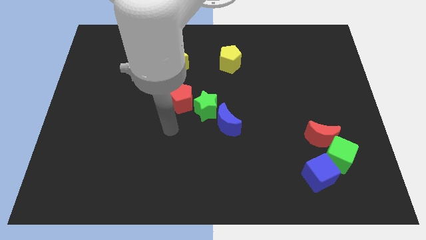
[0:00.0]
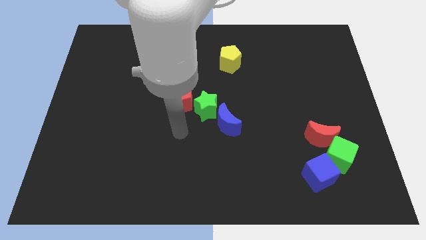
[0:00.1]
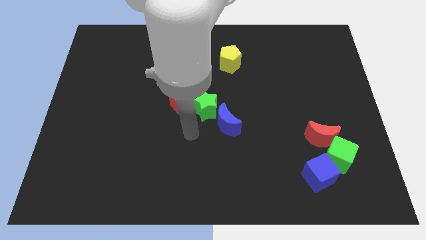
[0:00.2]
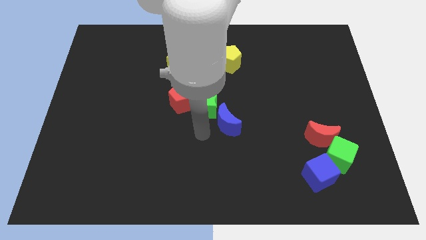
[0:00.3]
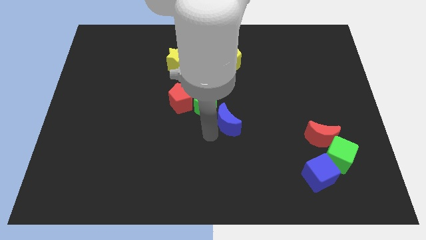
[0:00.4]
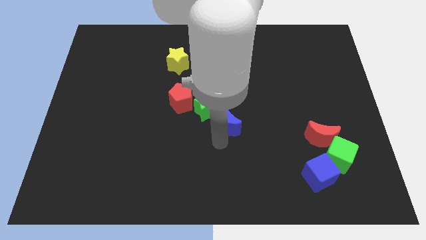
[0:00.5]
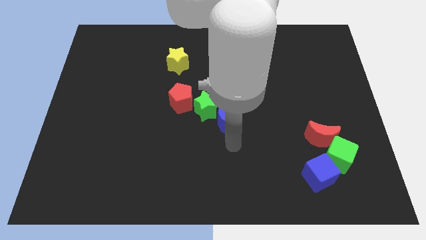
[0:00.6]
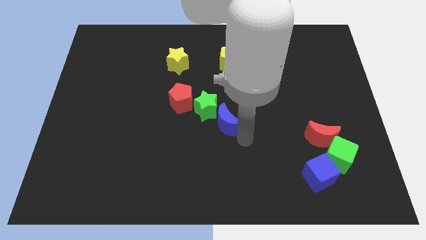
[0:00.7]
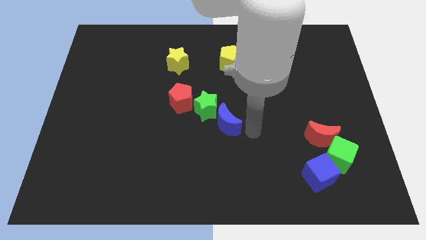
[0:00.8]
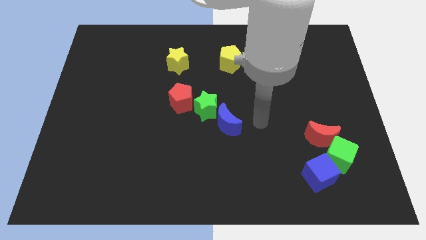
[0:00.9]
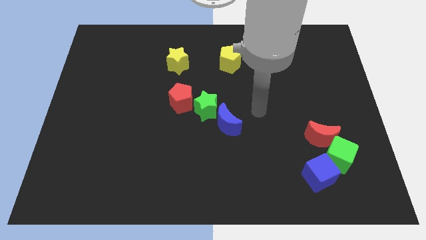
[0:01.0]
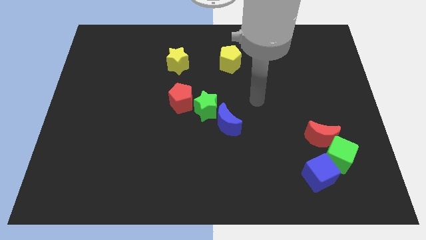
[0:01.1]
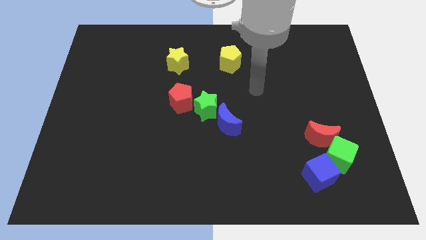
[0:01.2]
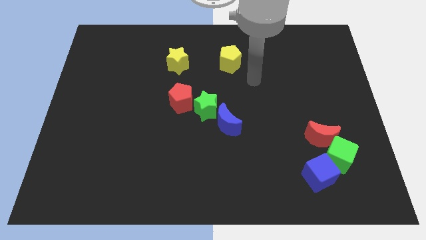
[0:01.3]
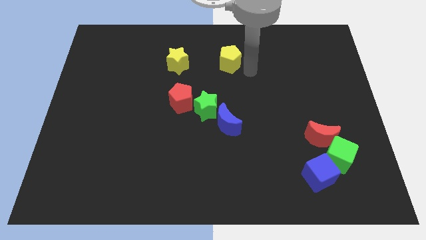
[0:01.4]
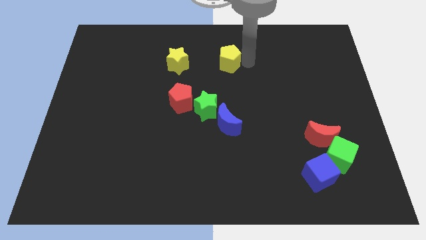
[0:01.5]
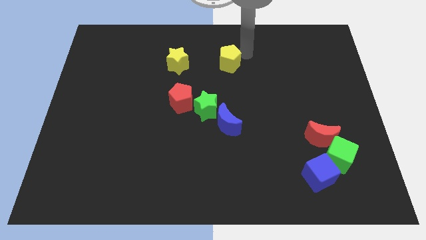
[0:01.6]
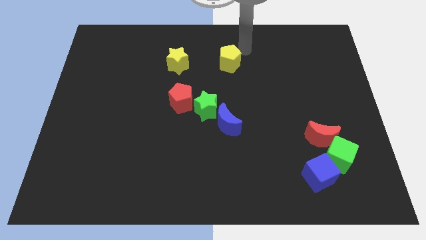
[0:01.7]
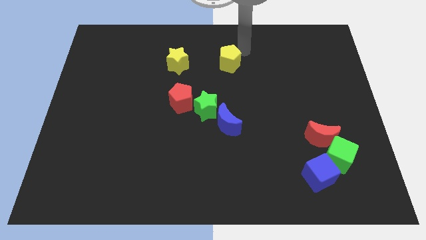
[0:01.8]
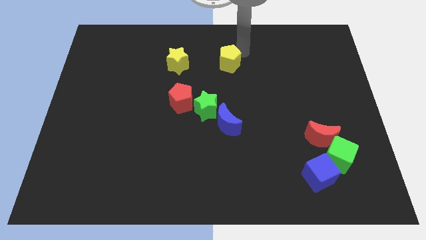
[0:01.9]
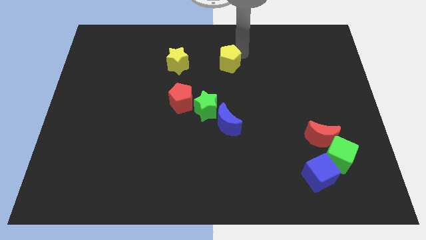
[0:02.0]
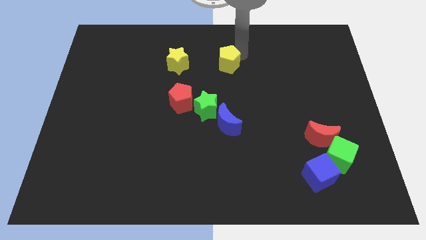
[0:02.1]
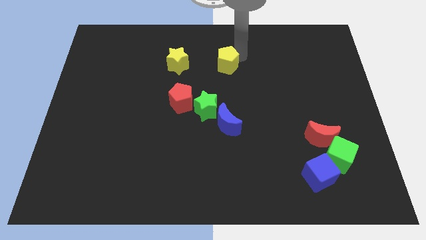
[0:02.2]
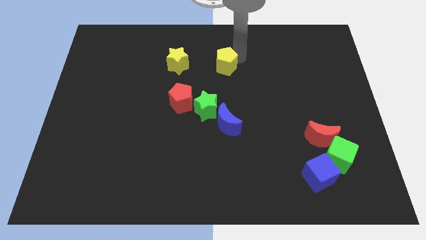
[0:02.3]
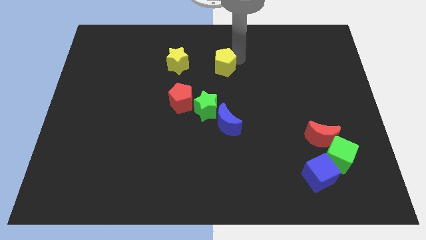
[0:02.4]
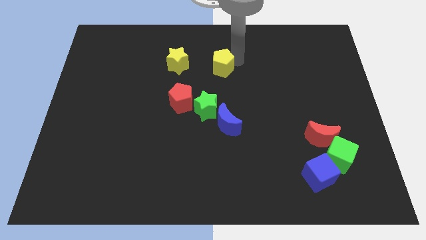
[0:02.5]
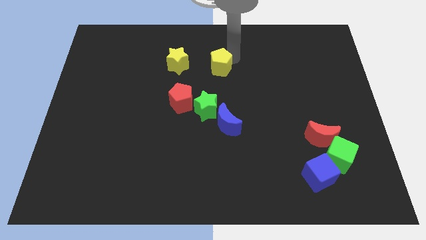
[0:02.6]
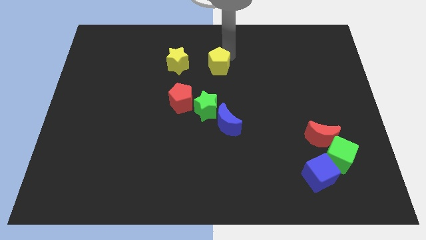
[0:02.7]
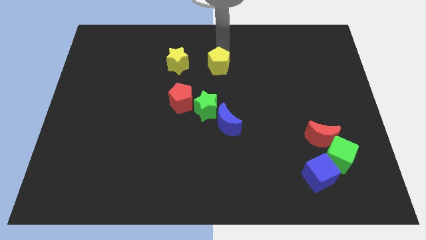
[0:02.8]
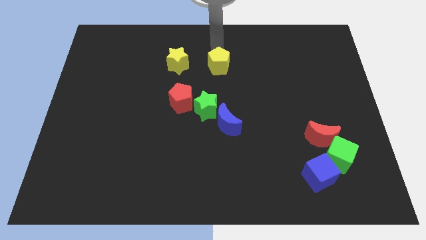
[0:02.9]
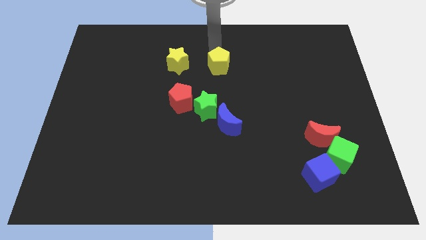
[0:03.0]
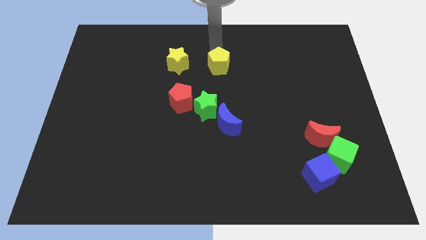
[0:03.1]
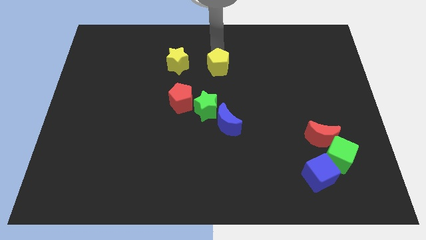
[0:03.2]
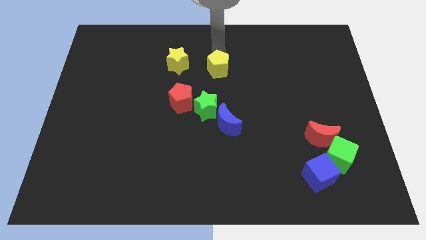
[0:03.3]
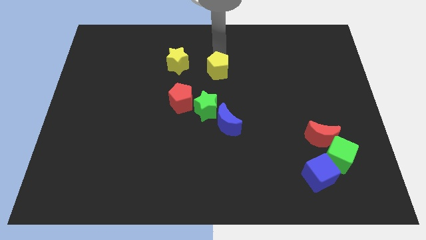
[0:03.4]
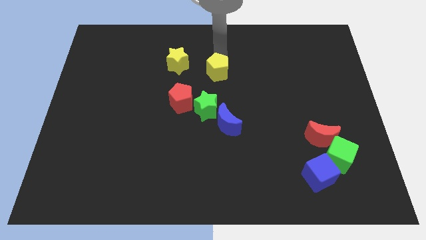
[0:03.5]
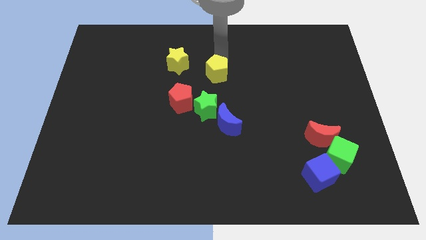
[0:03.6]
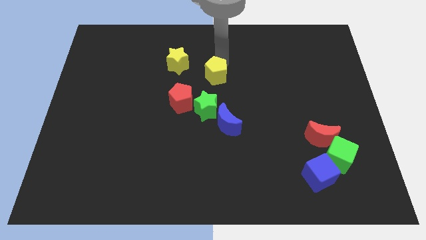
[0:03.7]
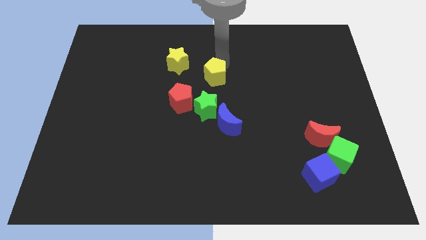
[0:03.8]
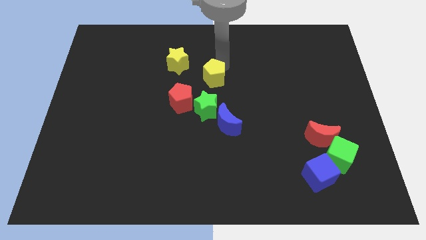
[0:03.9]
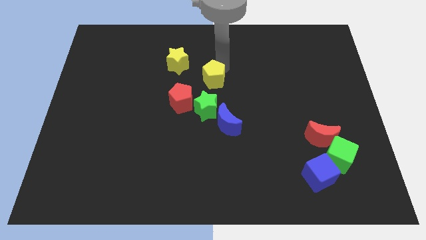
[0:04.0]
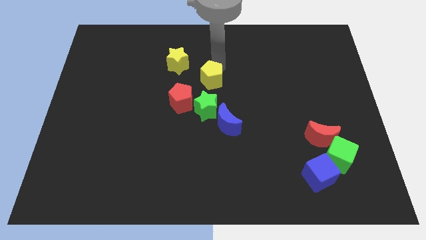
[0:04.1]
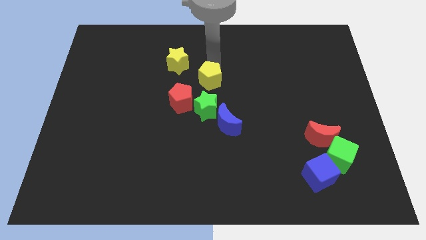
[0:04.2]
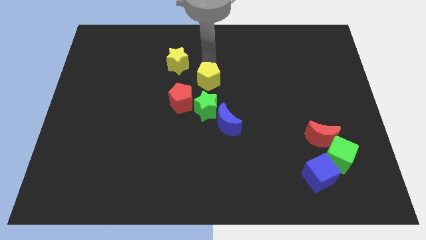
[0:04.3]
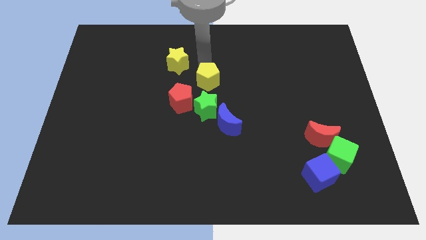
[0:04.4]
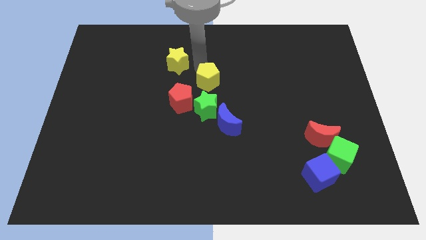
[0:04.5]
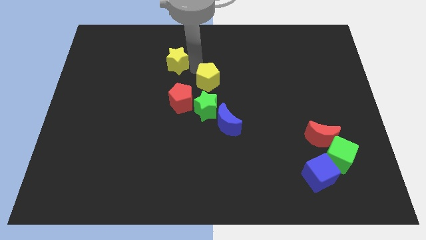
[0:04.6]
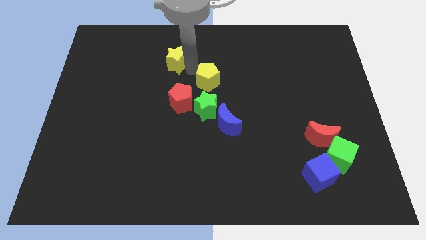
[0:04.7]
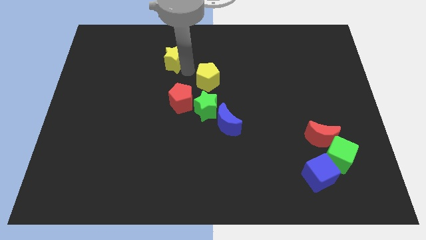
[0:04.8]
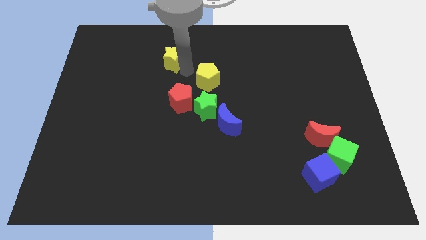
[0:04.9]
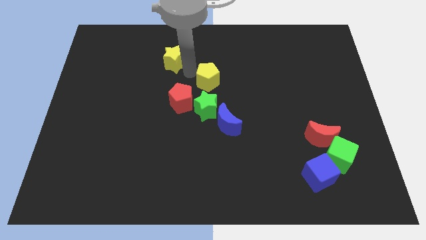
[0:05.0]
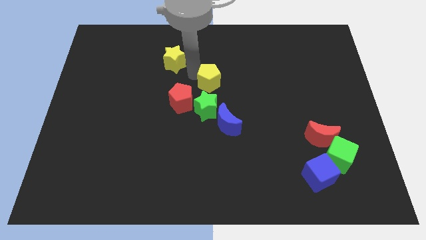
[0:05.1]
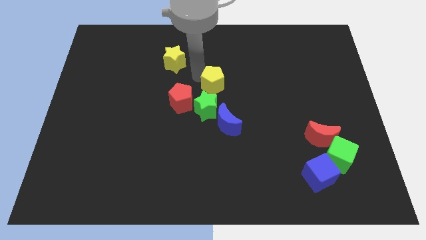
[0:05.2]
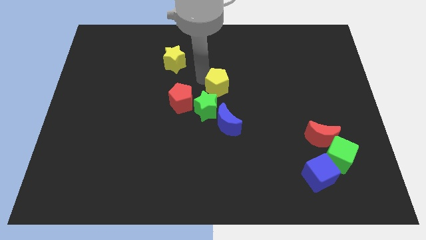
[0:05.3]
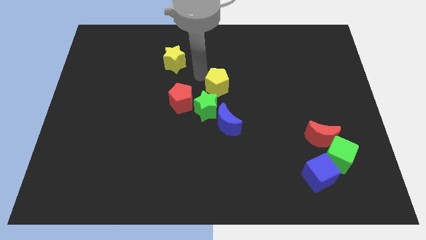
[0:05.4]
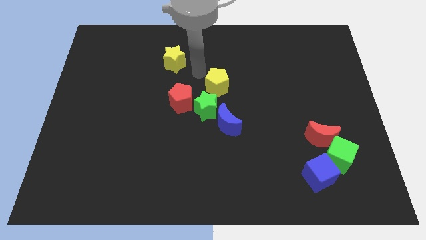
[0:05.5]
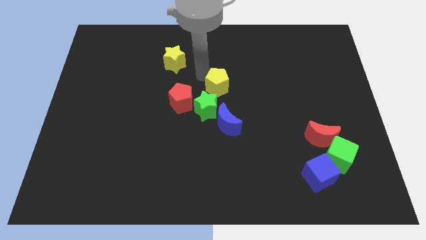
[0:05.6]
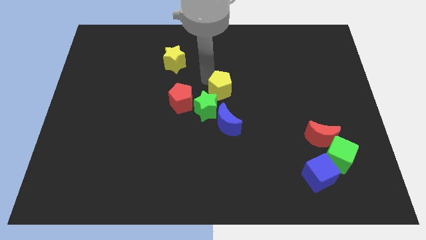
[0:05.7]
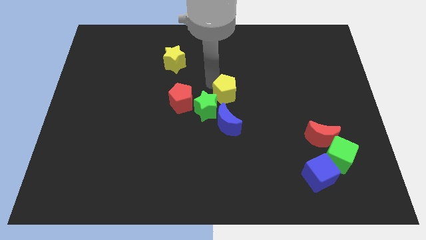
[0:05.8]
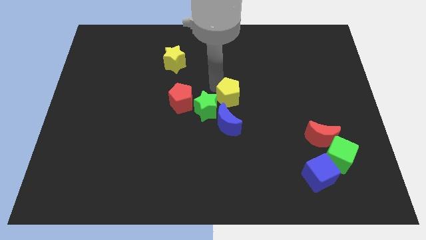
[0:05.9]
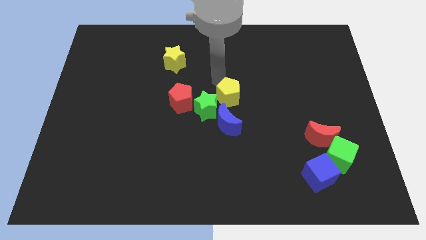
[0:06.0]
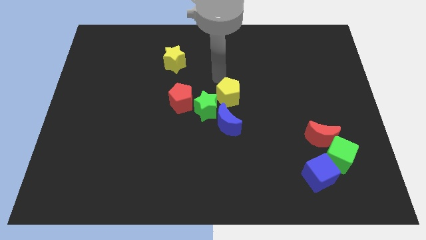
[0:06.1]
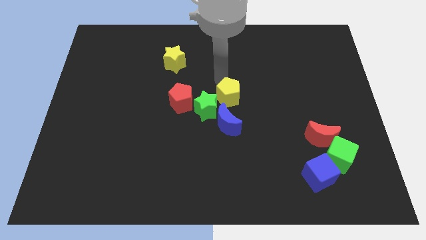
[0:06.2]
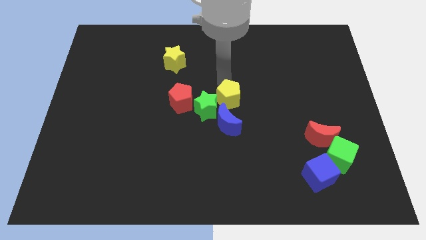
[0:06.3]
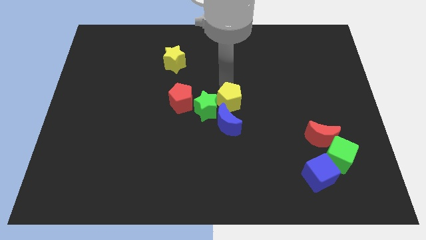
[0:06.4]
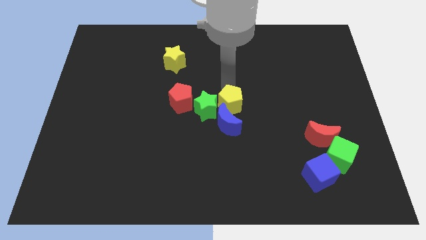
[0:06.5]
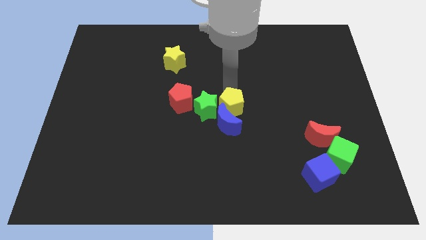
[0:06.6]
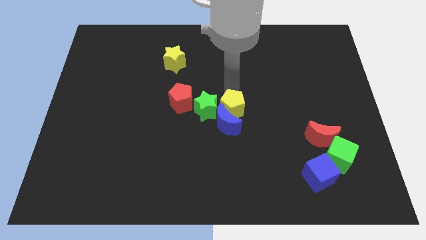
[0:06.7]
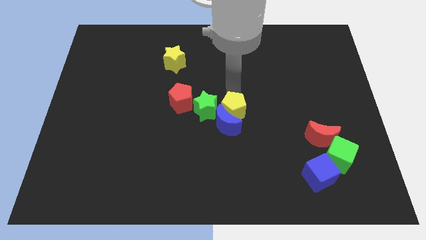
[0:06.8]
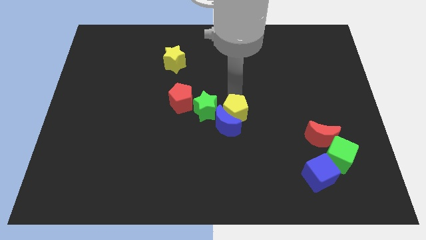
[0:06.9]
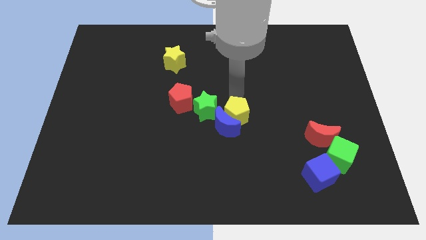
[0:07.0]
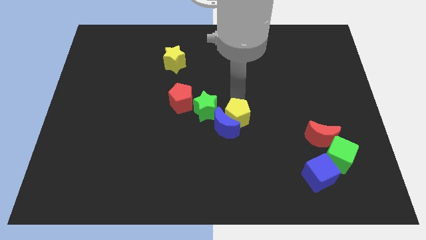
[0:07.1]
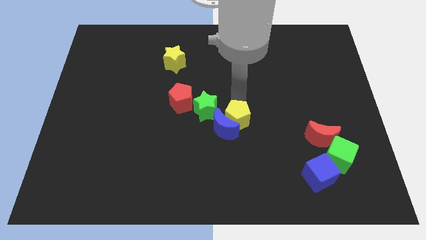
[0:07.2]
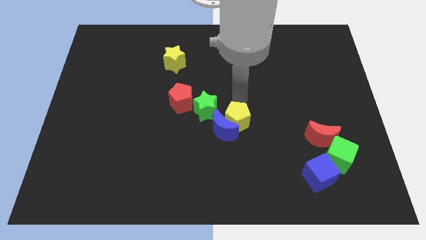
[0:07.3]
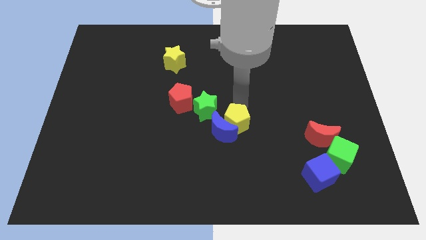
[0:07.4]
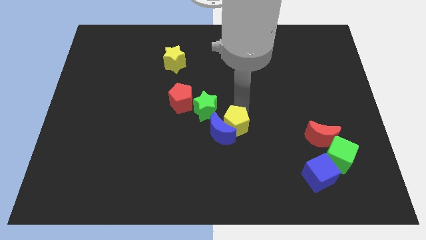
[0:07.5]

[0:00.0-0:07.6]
move the yellow pentagon down
